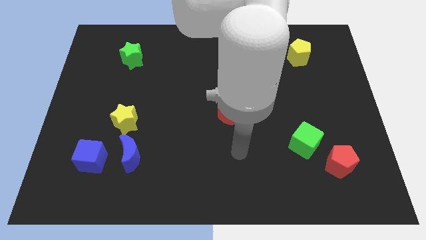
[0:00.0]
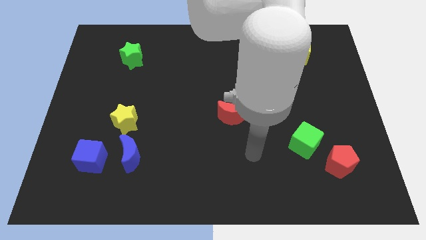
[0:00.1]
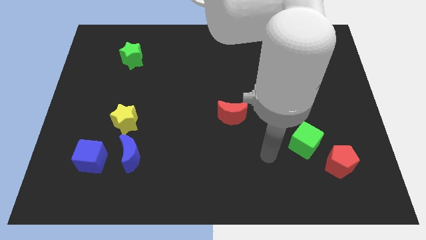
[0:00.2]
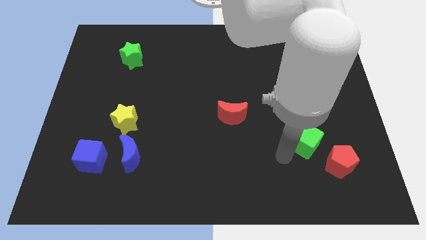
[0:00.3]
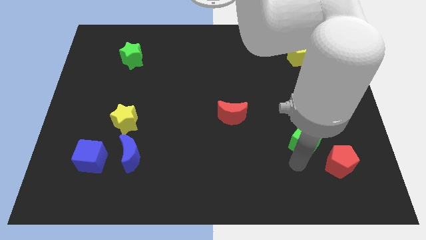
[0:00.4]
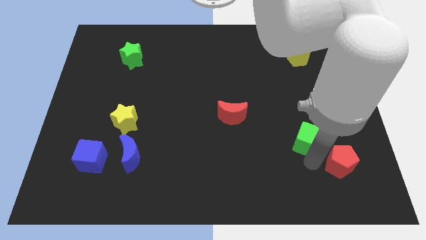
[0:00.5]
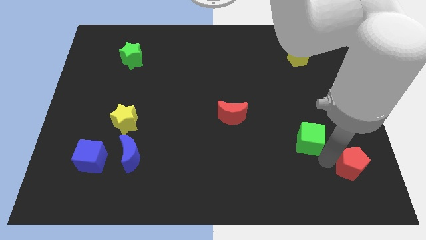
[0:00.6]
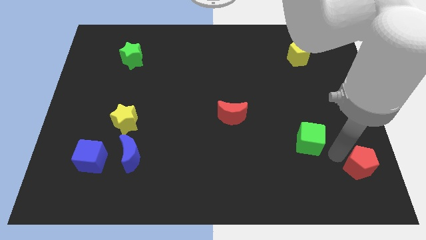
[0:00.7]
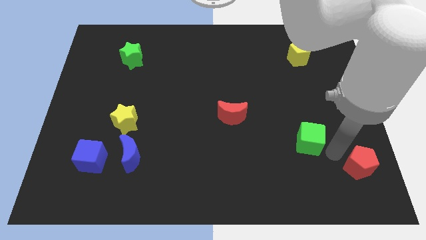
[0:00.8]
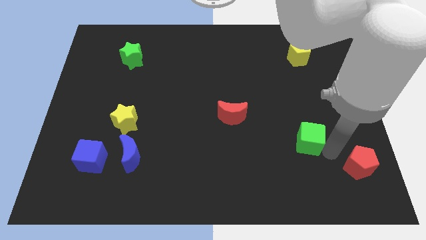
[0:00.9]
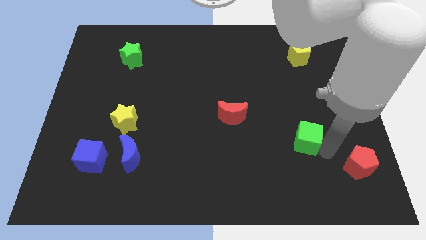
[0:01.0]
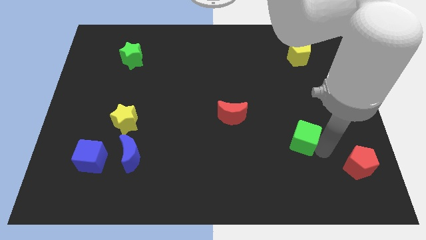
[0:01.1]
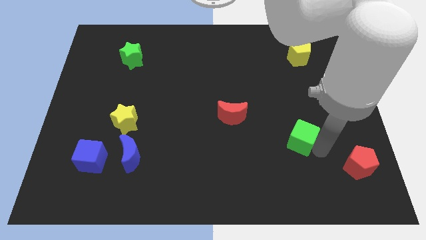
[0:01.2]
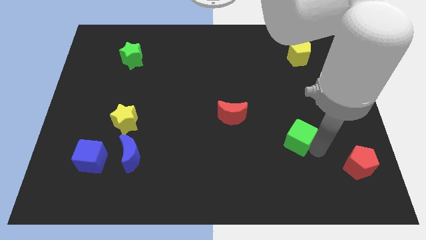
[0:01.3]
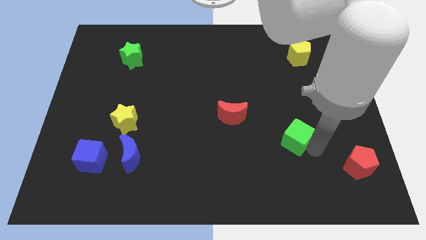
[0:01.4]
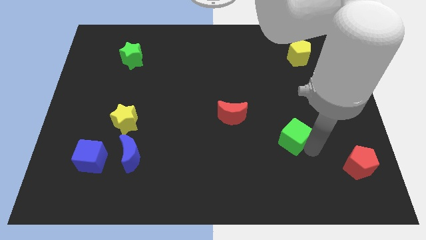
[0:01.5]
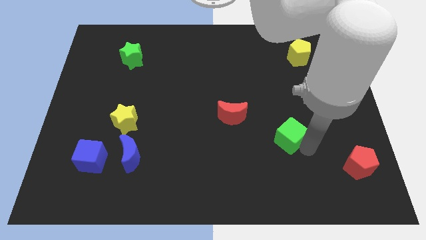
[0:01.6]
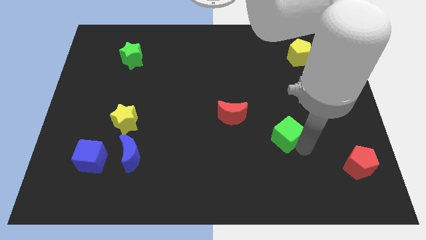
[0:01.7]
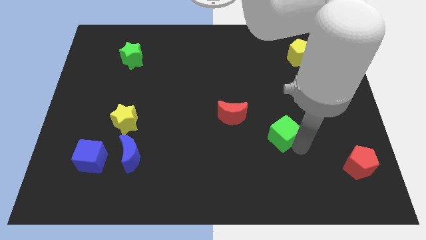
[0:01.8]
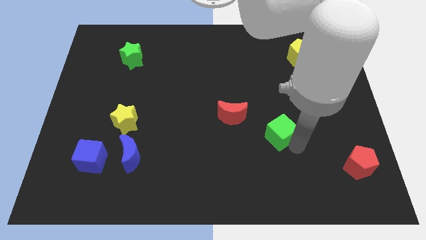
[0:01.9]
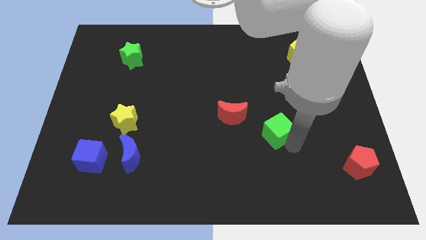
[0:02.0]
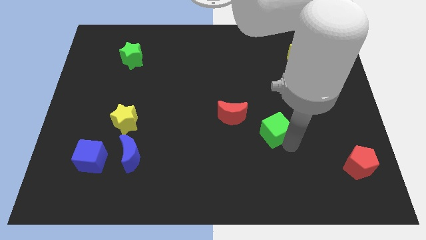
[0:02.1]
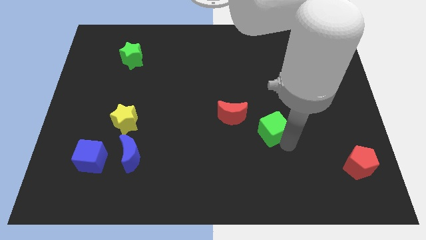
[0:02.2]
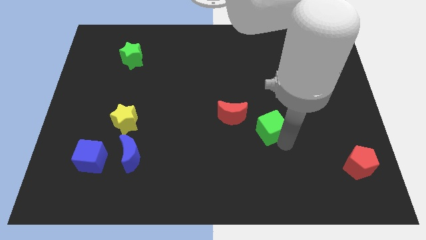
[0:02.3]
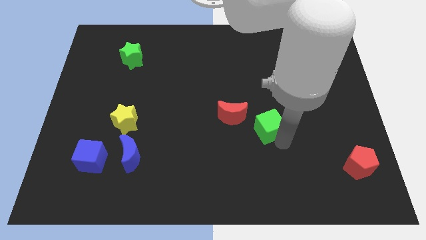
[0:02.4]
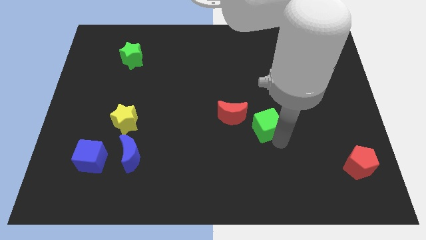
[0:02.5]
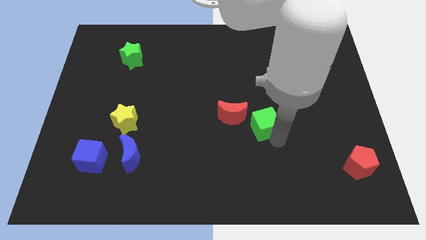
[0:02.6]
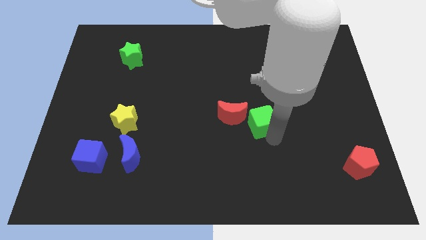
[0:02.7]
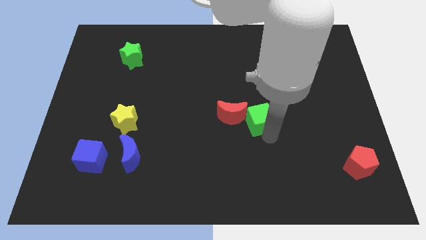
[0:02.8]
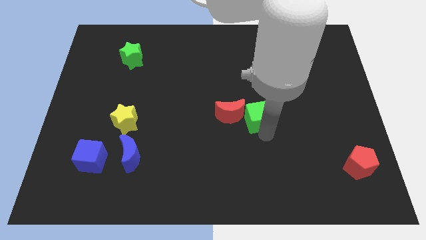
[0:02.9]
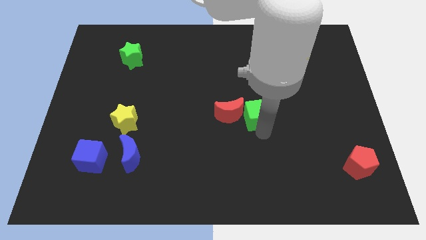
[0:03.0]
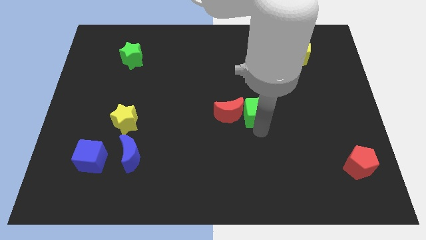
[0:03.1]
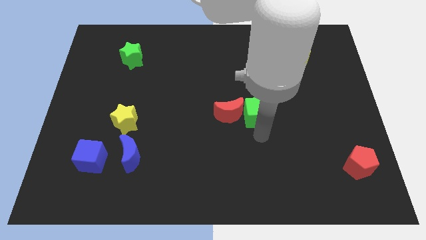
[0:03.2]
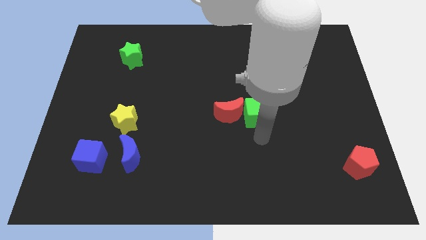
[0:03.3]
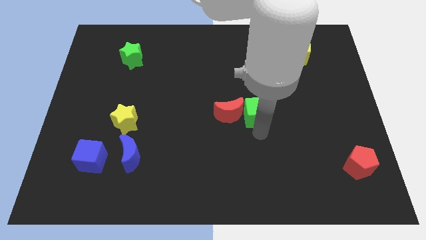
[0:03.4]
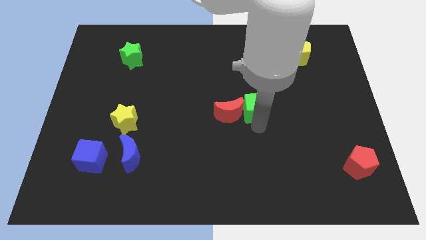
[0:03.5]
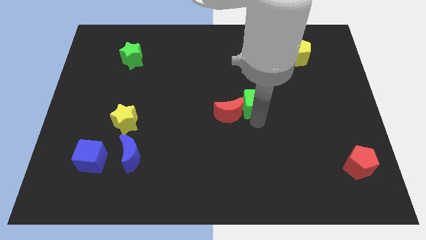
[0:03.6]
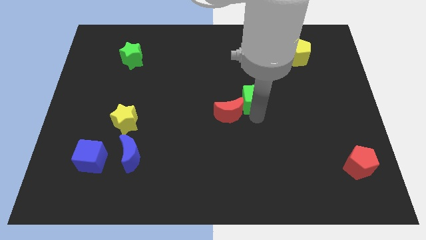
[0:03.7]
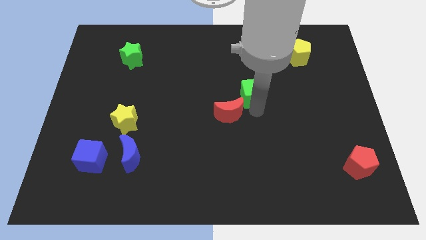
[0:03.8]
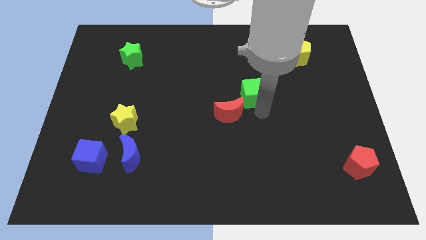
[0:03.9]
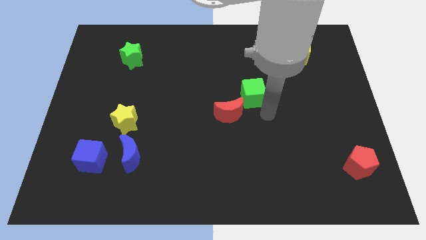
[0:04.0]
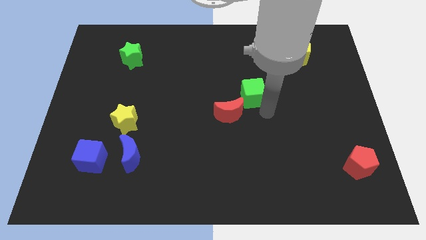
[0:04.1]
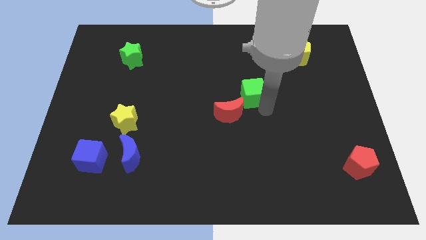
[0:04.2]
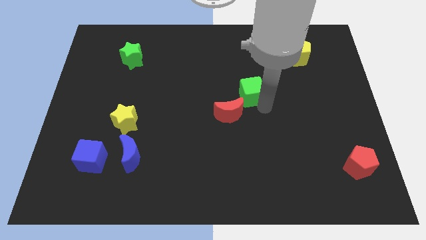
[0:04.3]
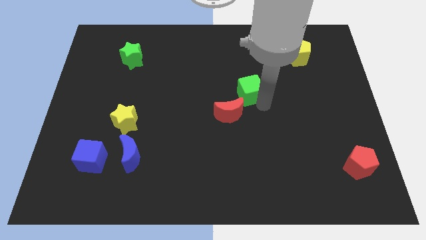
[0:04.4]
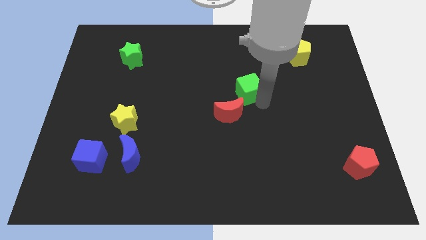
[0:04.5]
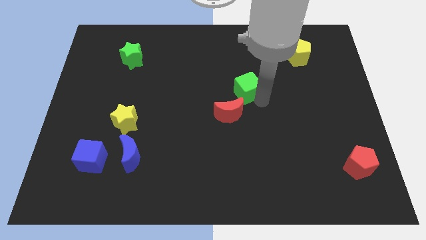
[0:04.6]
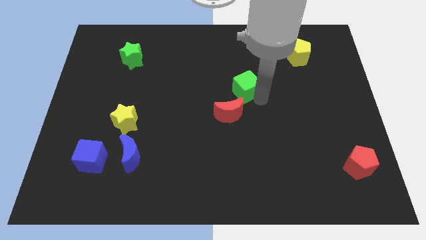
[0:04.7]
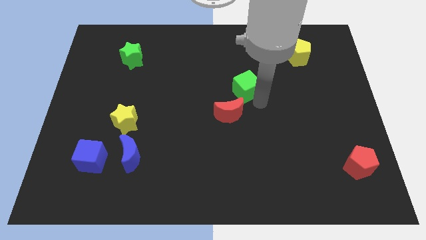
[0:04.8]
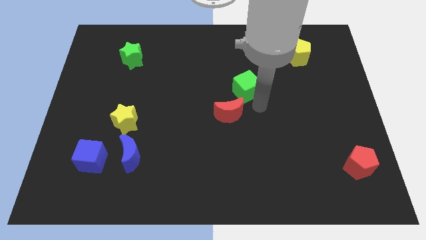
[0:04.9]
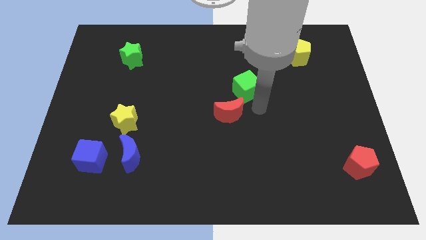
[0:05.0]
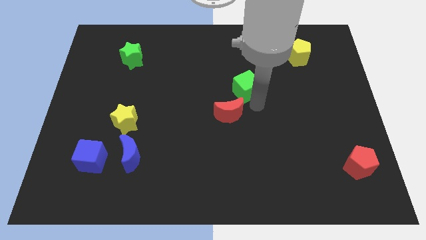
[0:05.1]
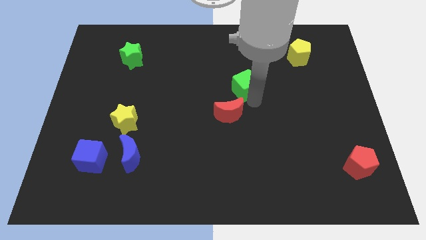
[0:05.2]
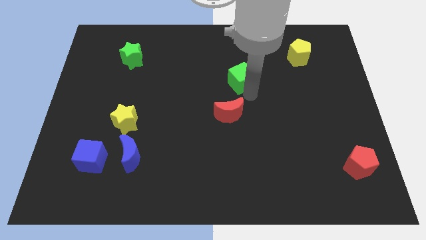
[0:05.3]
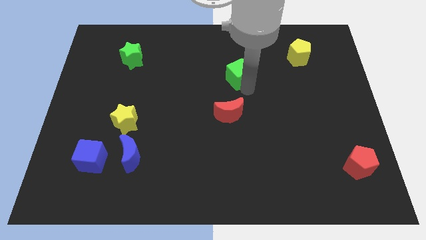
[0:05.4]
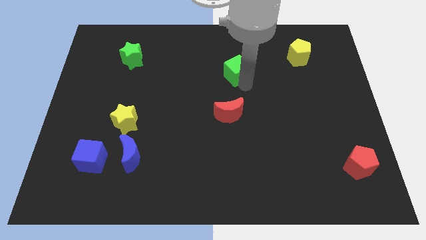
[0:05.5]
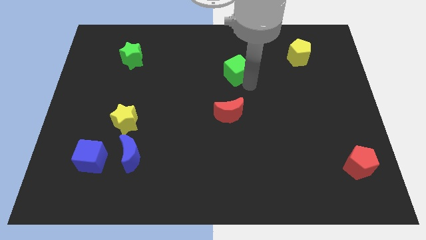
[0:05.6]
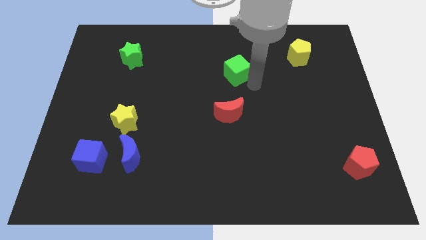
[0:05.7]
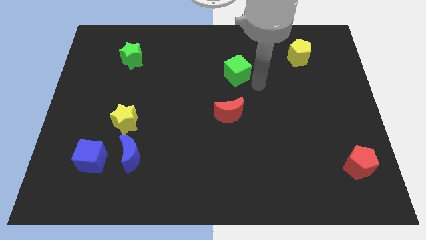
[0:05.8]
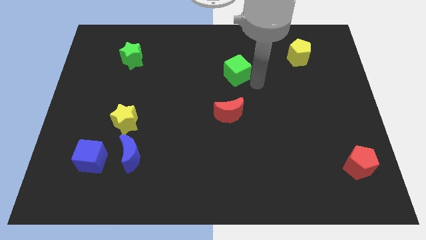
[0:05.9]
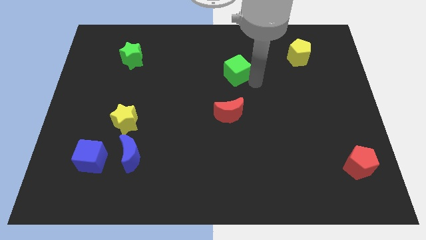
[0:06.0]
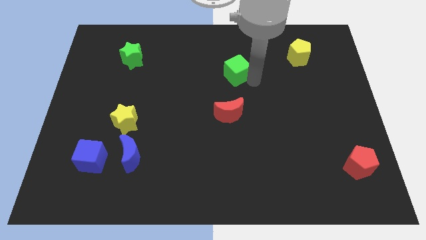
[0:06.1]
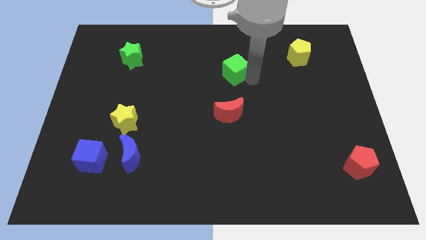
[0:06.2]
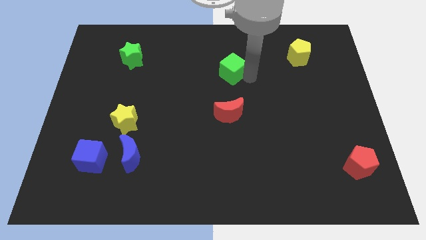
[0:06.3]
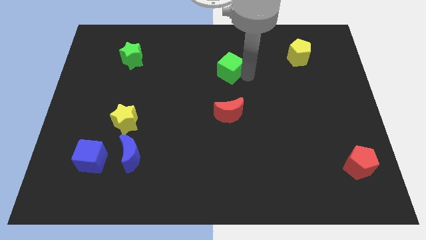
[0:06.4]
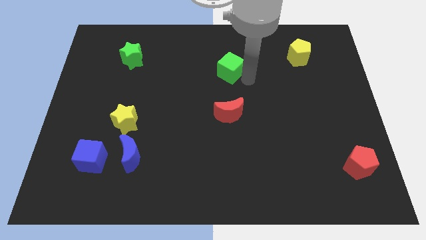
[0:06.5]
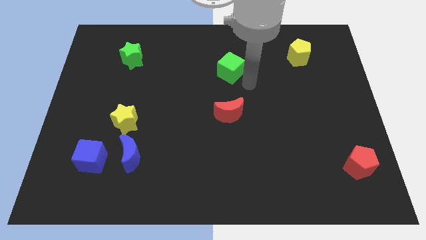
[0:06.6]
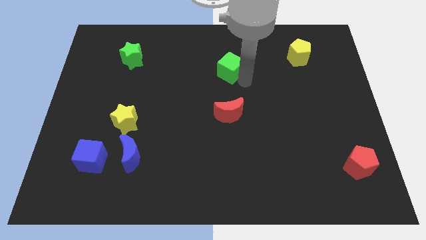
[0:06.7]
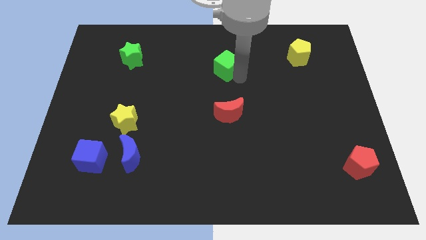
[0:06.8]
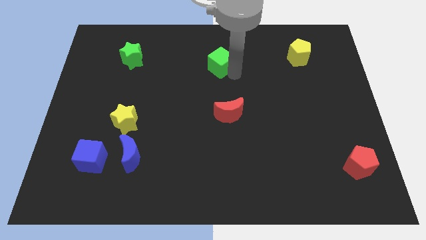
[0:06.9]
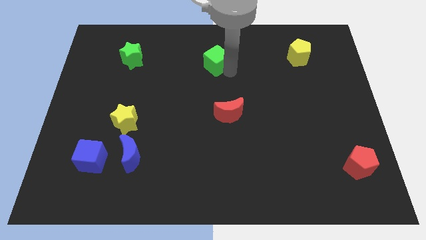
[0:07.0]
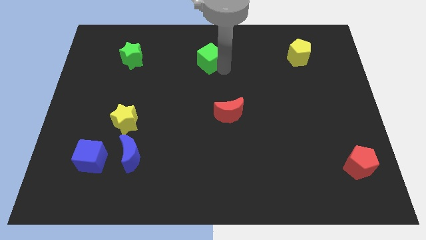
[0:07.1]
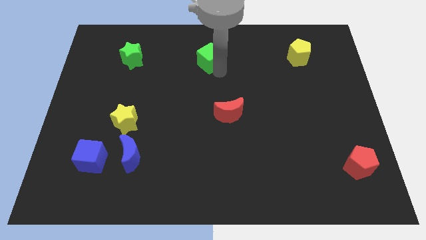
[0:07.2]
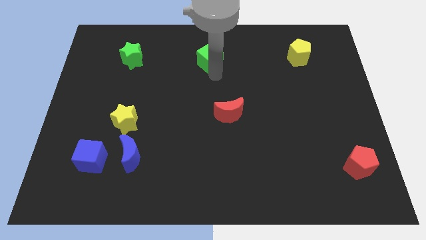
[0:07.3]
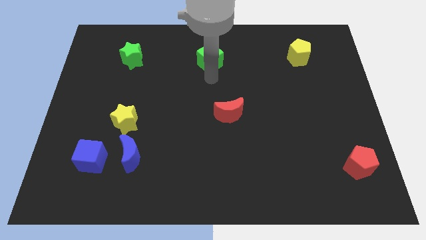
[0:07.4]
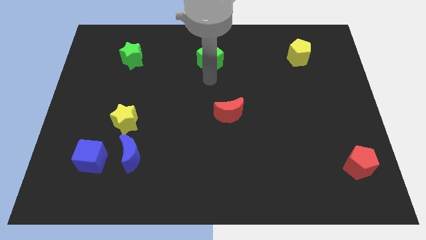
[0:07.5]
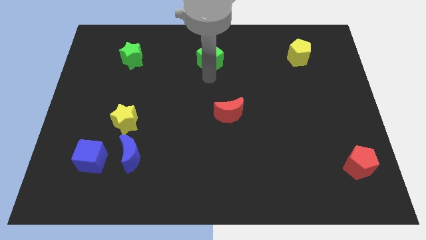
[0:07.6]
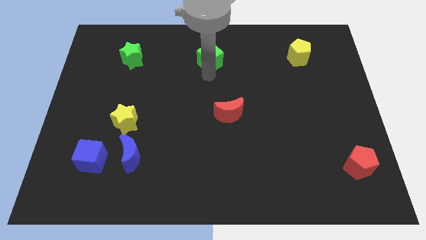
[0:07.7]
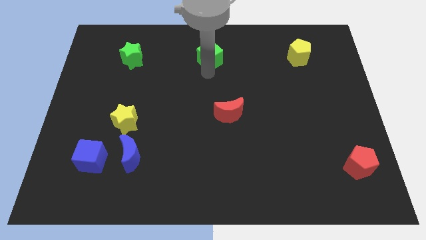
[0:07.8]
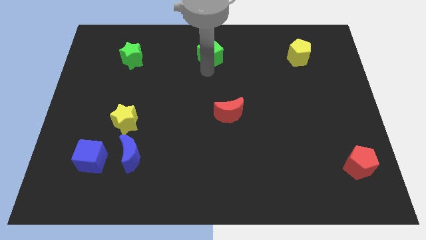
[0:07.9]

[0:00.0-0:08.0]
slide the green cube to the towards your base
